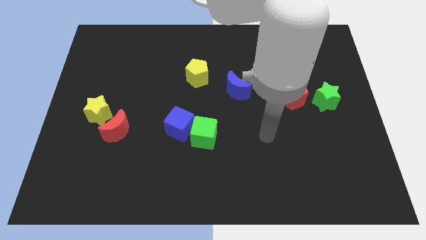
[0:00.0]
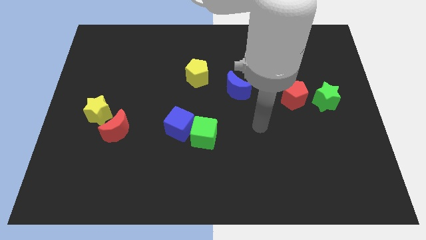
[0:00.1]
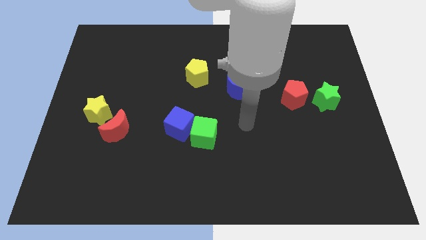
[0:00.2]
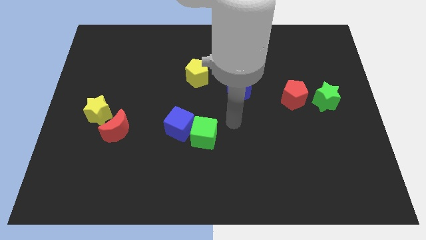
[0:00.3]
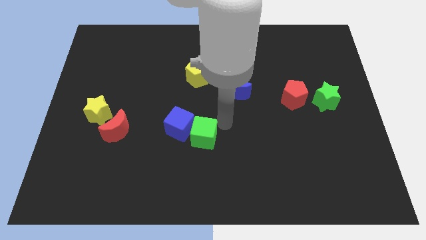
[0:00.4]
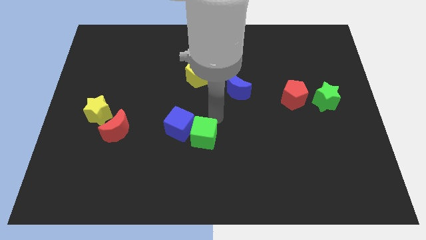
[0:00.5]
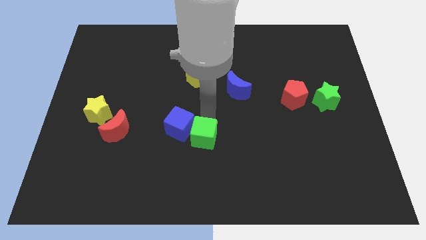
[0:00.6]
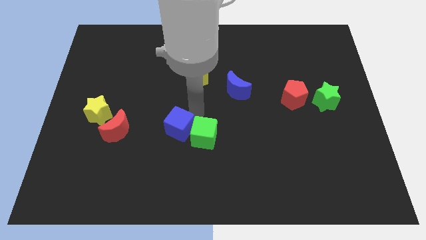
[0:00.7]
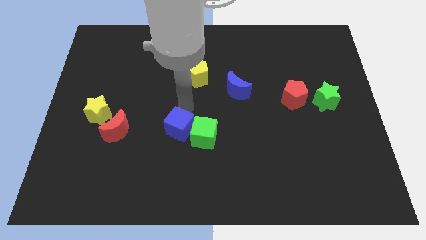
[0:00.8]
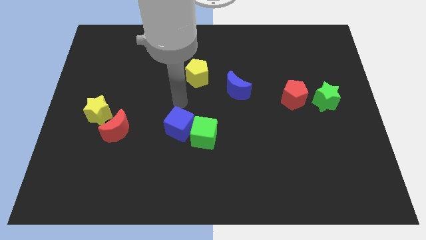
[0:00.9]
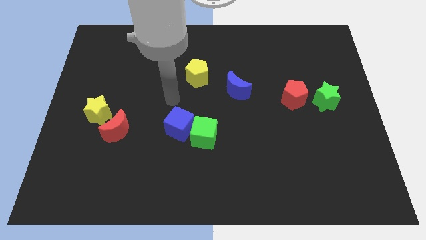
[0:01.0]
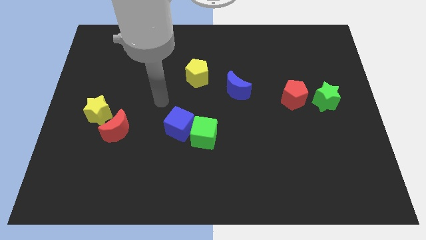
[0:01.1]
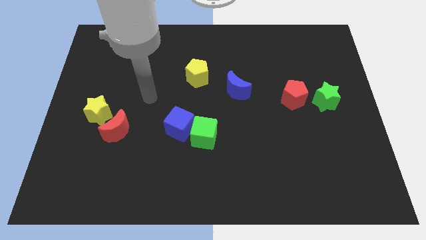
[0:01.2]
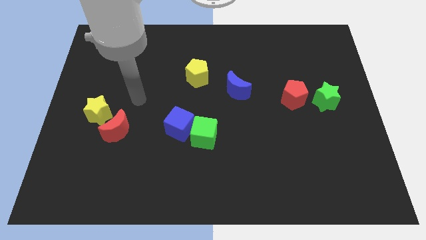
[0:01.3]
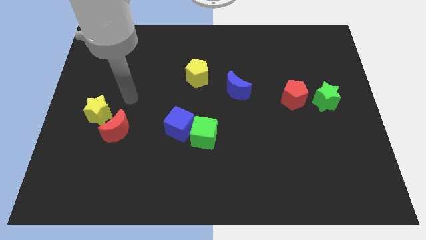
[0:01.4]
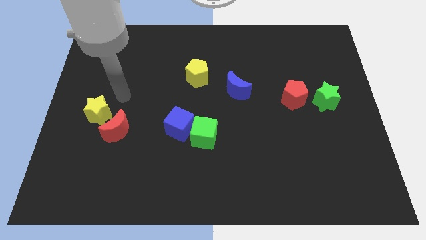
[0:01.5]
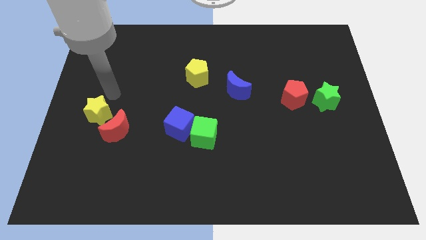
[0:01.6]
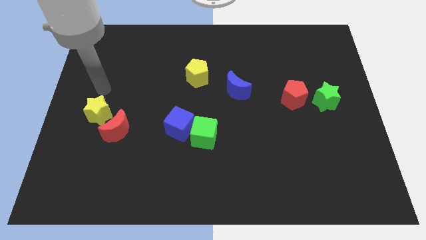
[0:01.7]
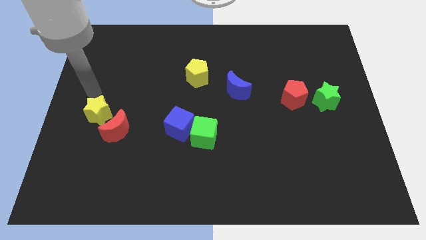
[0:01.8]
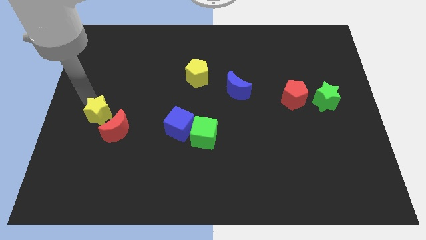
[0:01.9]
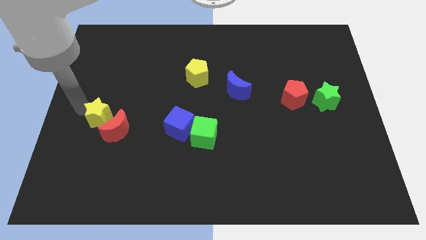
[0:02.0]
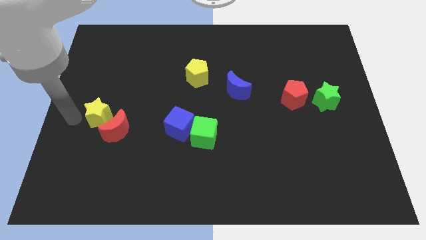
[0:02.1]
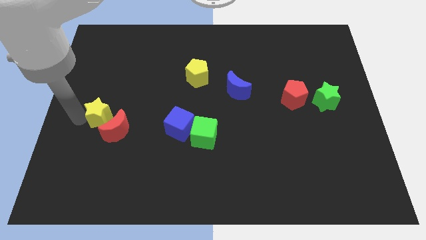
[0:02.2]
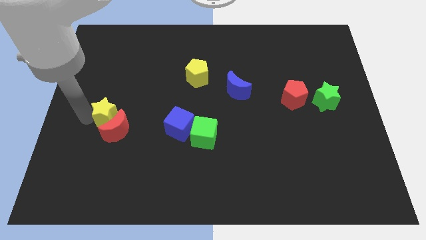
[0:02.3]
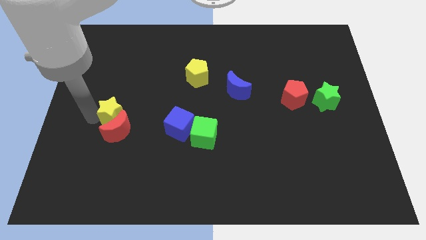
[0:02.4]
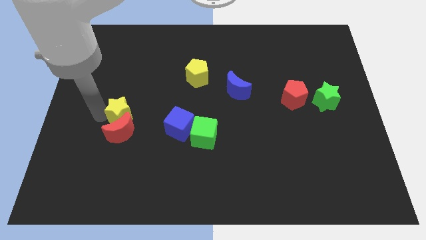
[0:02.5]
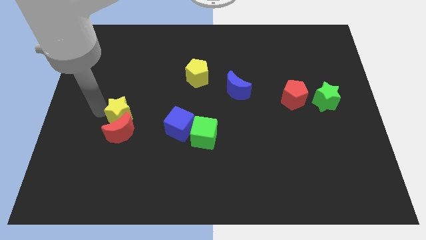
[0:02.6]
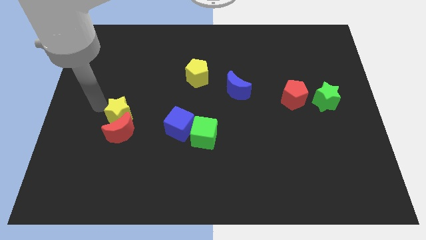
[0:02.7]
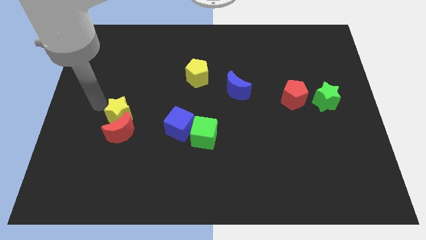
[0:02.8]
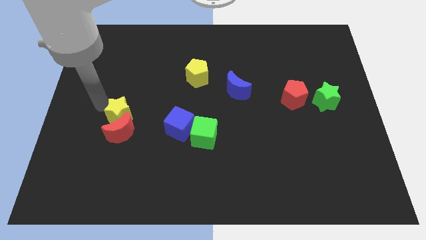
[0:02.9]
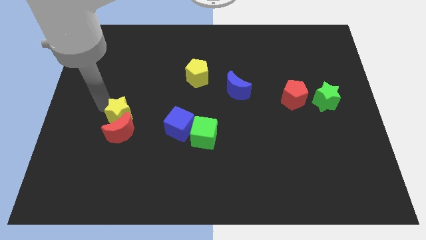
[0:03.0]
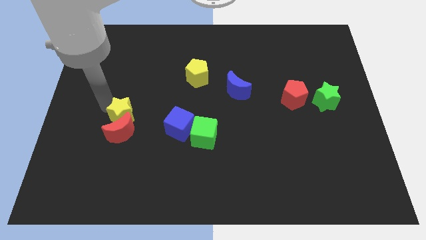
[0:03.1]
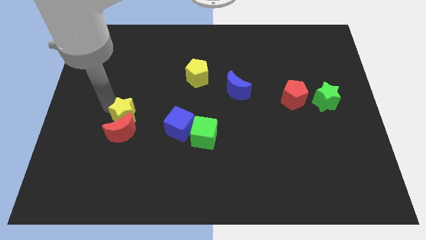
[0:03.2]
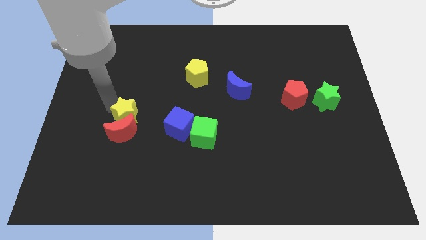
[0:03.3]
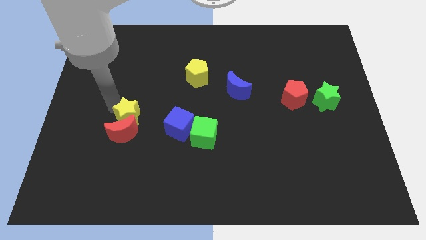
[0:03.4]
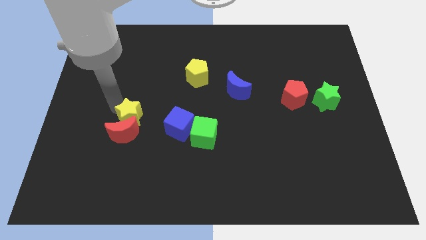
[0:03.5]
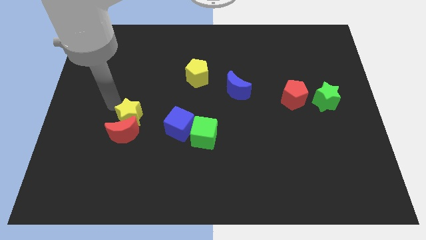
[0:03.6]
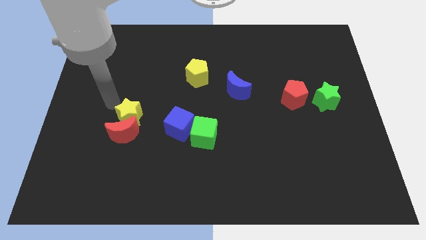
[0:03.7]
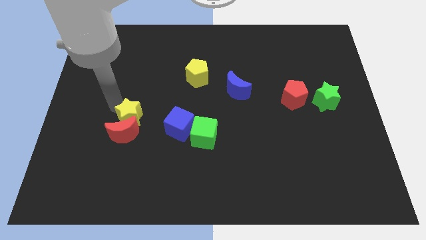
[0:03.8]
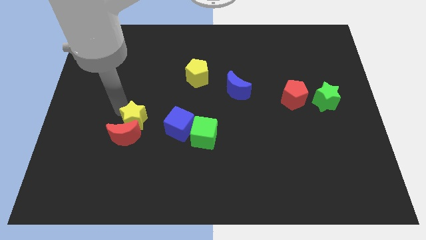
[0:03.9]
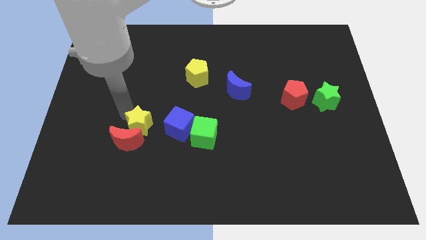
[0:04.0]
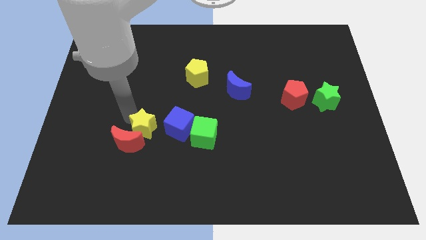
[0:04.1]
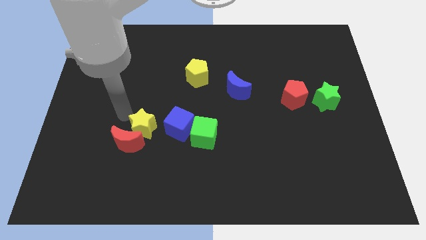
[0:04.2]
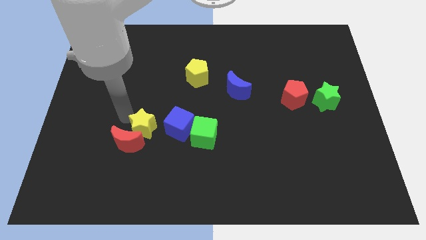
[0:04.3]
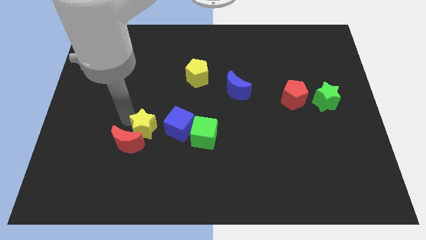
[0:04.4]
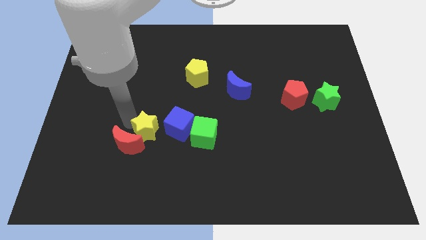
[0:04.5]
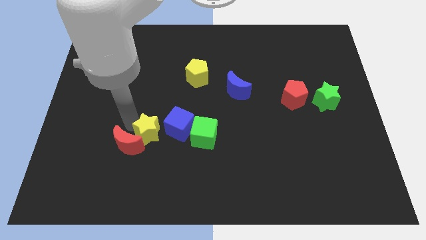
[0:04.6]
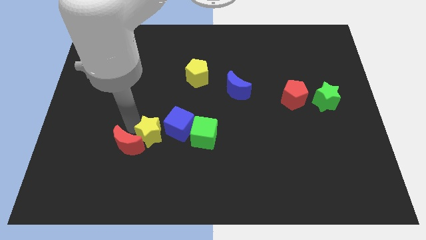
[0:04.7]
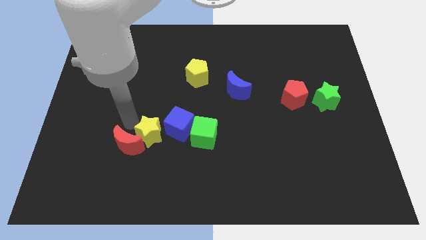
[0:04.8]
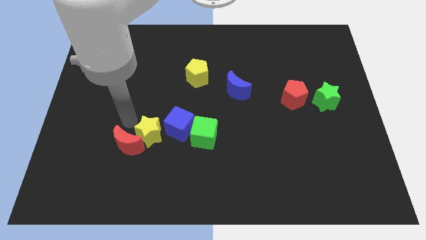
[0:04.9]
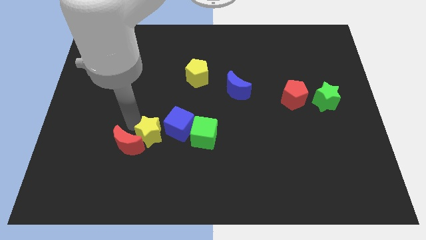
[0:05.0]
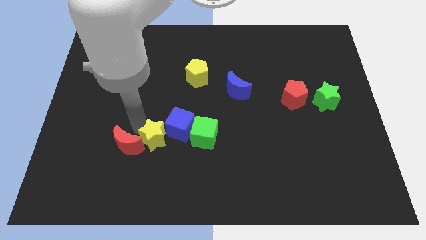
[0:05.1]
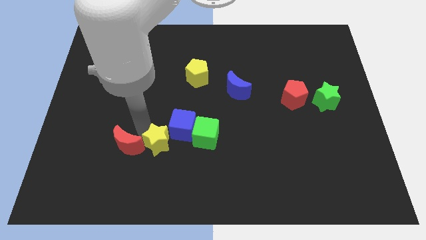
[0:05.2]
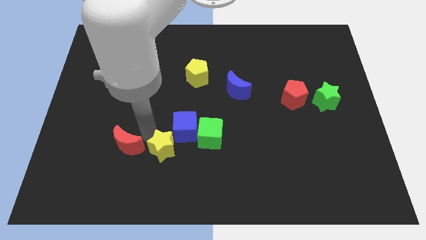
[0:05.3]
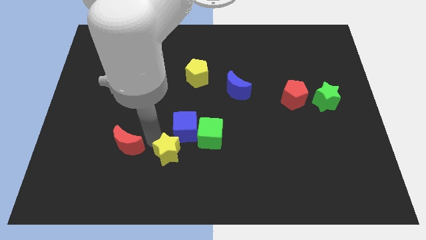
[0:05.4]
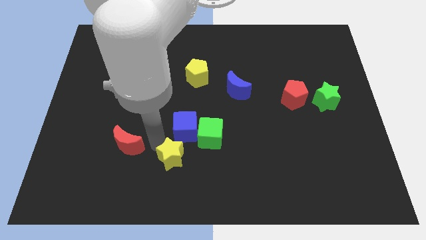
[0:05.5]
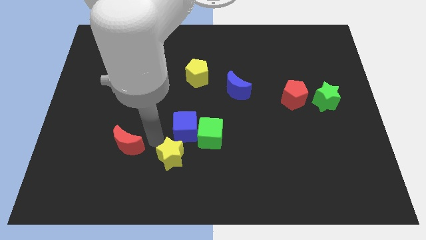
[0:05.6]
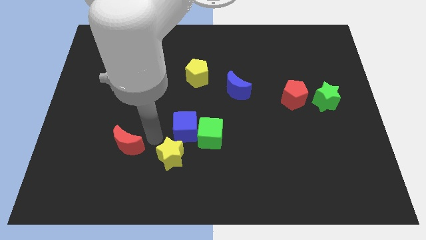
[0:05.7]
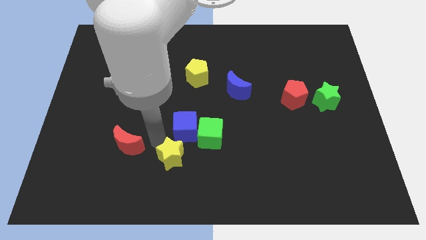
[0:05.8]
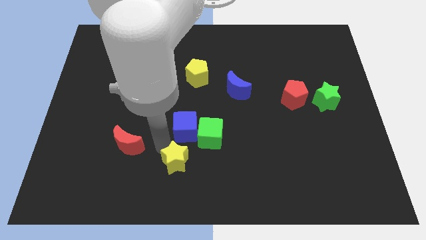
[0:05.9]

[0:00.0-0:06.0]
move the yellow star to the bottom

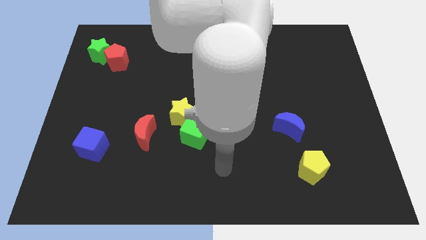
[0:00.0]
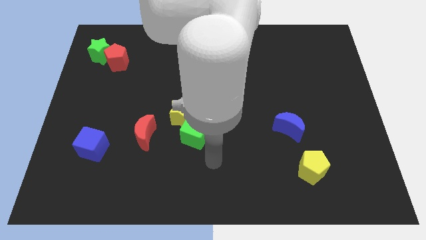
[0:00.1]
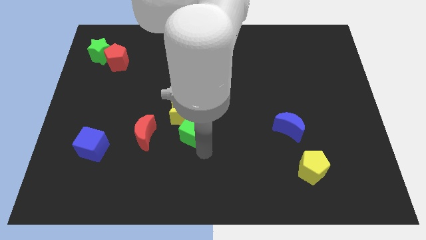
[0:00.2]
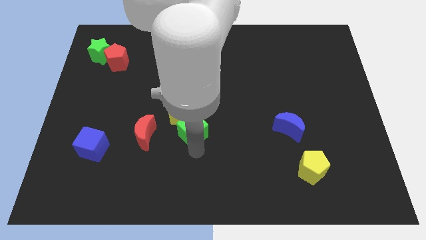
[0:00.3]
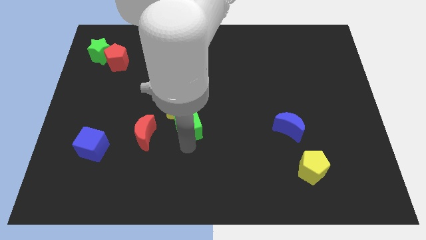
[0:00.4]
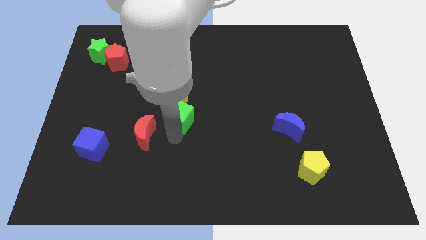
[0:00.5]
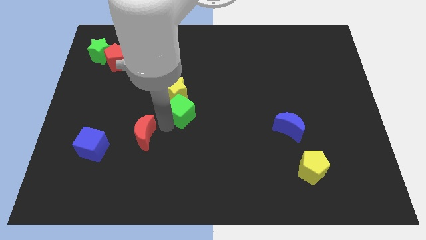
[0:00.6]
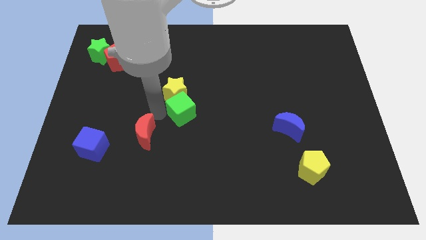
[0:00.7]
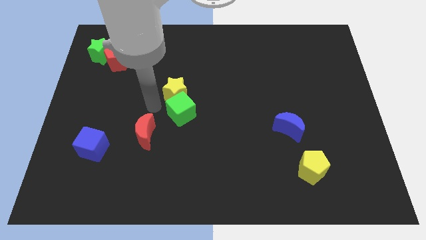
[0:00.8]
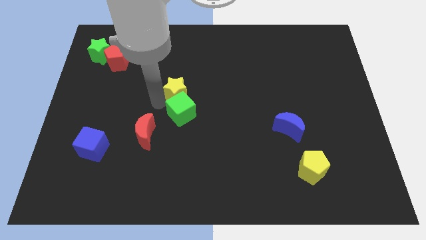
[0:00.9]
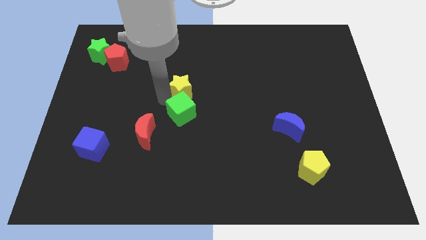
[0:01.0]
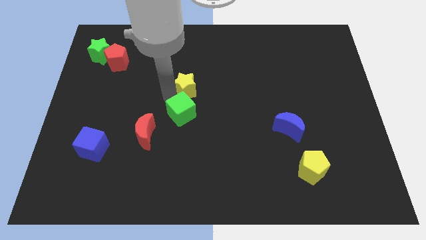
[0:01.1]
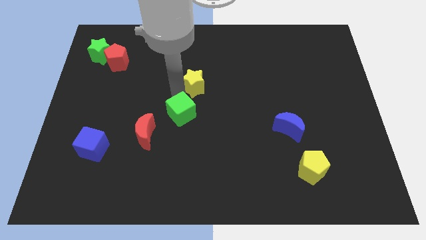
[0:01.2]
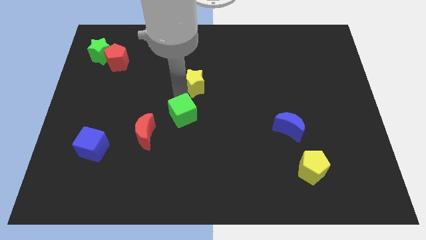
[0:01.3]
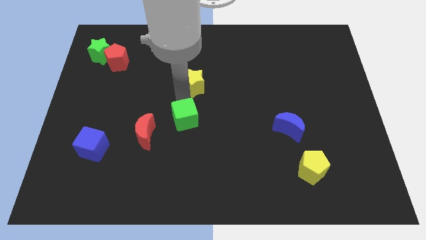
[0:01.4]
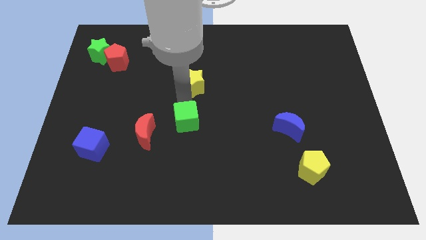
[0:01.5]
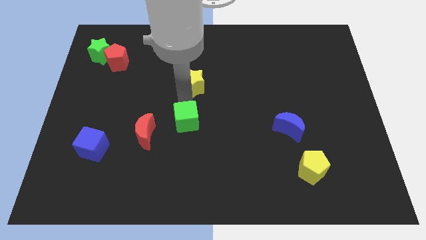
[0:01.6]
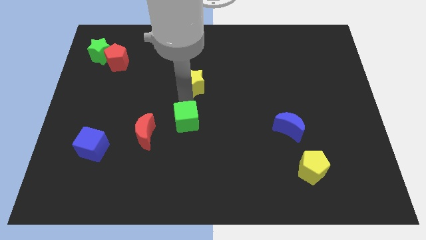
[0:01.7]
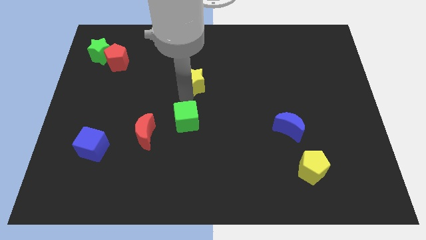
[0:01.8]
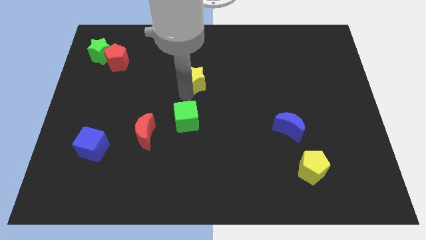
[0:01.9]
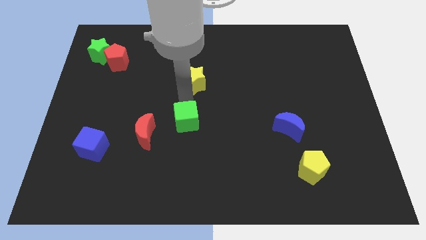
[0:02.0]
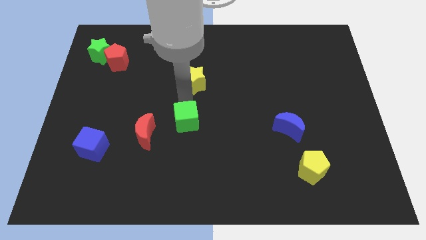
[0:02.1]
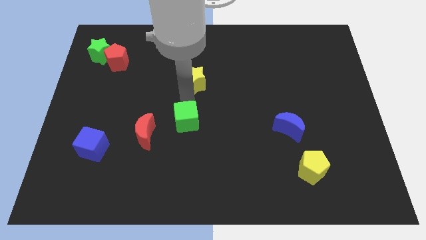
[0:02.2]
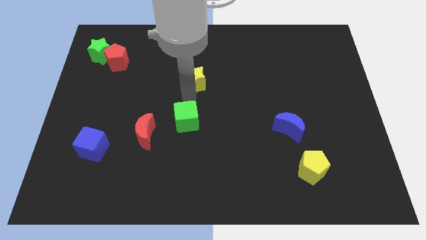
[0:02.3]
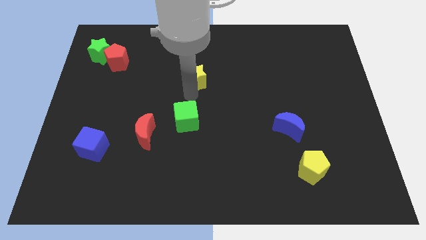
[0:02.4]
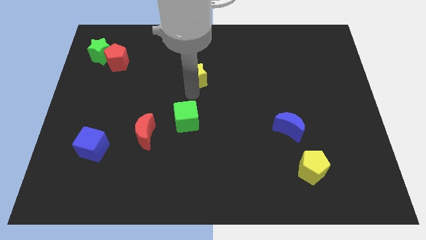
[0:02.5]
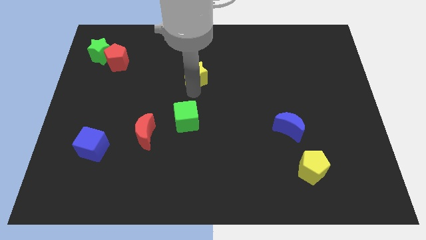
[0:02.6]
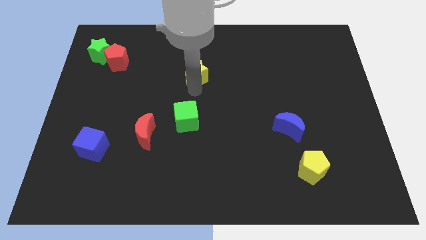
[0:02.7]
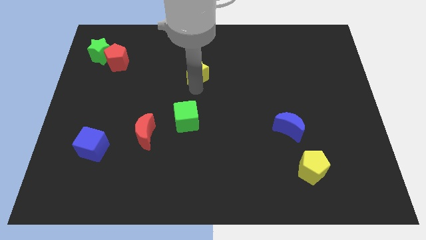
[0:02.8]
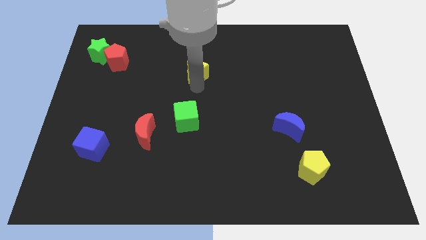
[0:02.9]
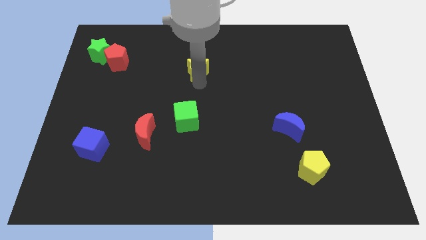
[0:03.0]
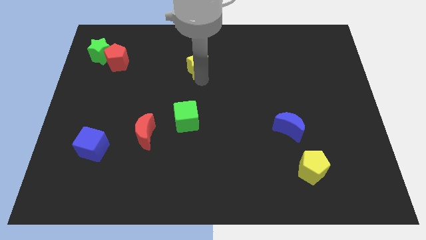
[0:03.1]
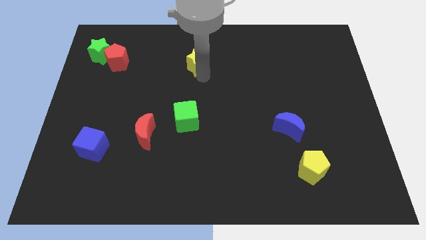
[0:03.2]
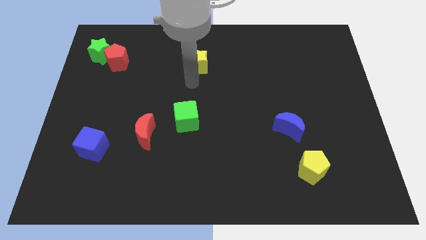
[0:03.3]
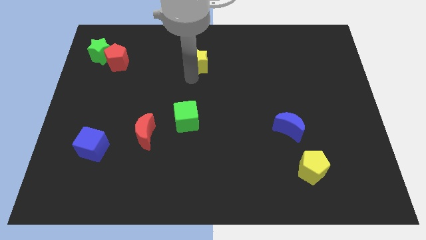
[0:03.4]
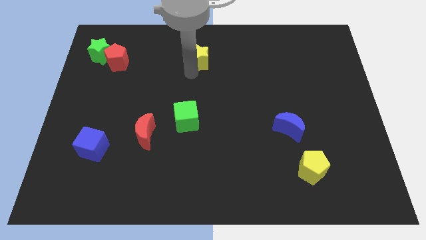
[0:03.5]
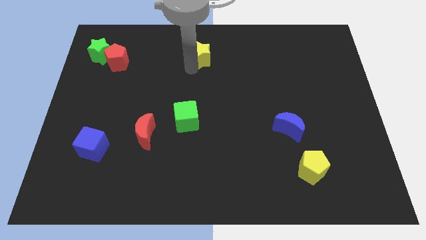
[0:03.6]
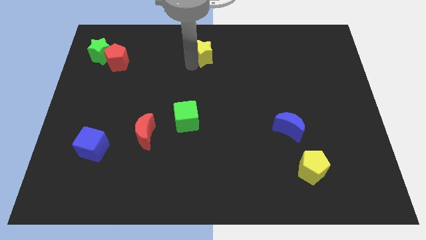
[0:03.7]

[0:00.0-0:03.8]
put the yellow star to the towards your base
